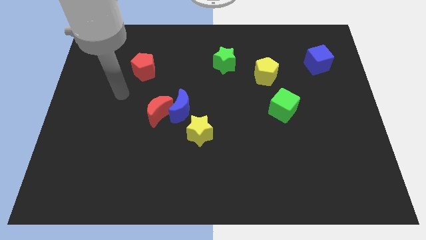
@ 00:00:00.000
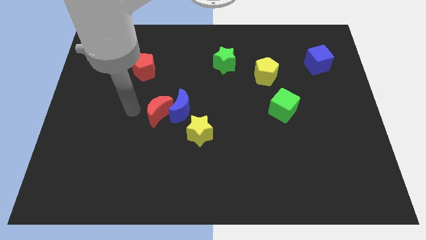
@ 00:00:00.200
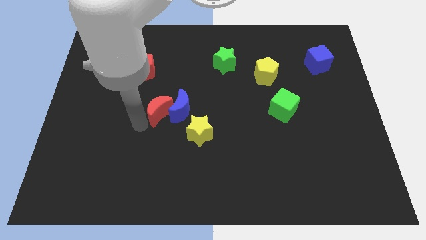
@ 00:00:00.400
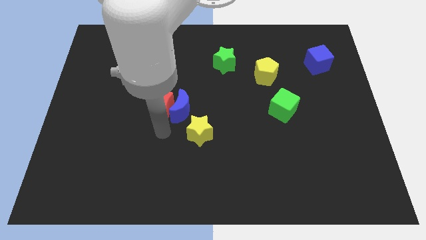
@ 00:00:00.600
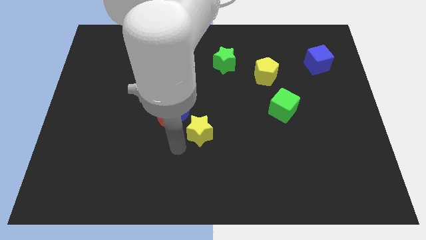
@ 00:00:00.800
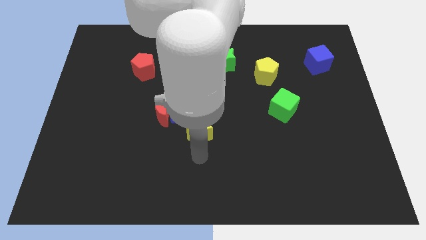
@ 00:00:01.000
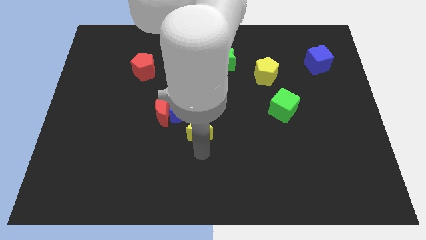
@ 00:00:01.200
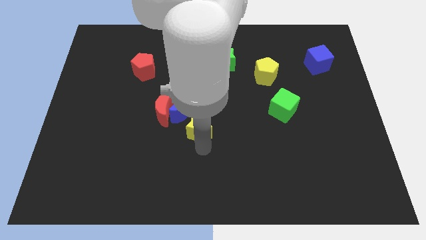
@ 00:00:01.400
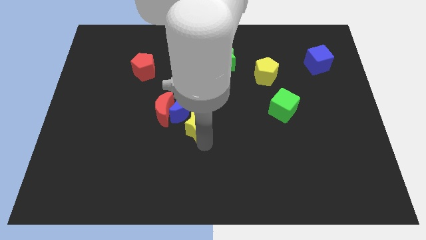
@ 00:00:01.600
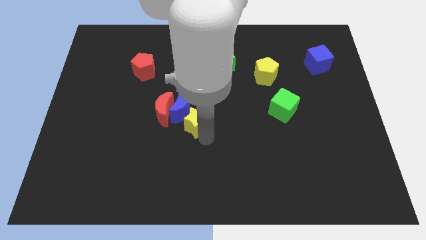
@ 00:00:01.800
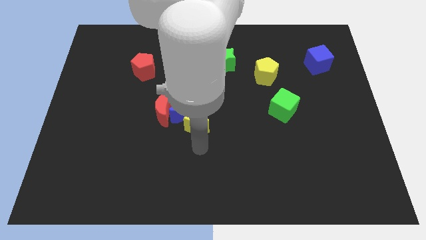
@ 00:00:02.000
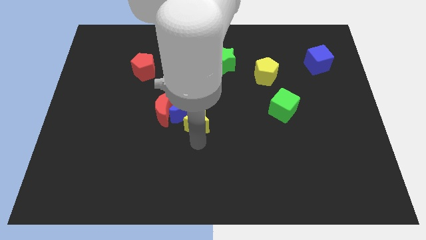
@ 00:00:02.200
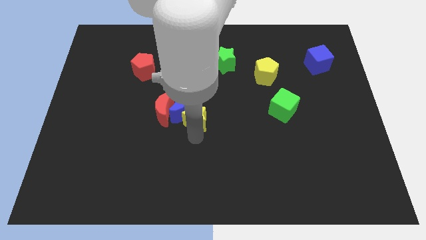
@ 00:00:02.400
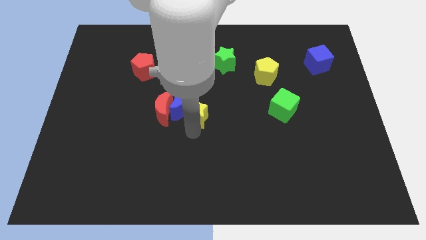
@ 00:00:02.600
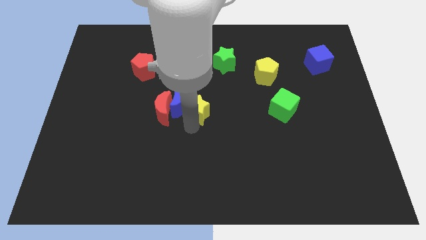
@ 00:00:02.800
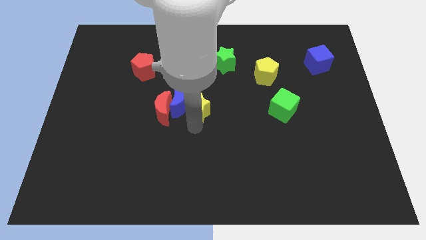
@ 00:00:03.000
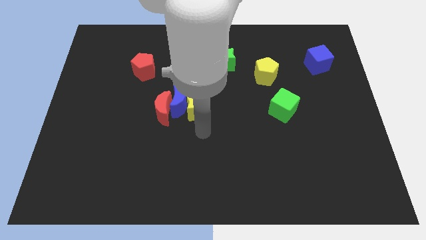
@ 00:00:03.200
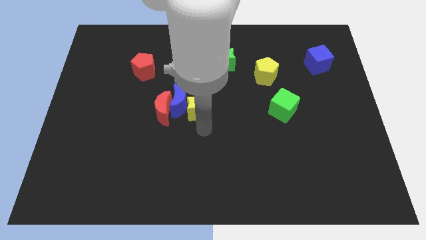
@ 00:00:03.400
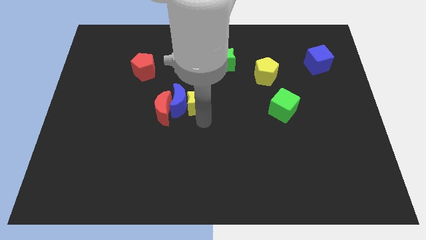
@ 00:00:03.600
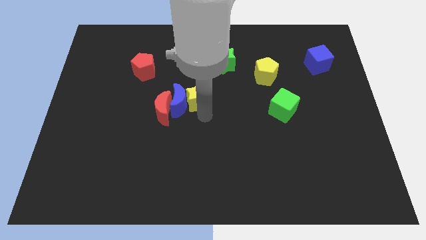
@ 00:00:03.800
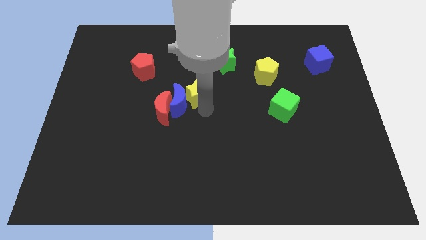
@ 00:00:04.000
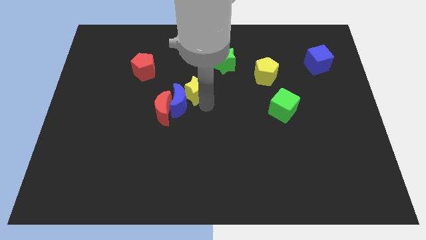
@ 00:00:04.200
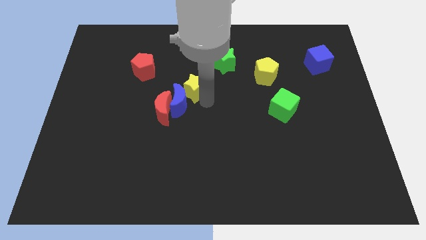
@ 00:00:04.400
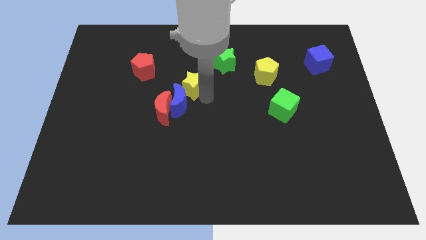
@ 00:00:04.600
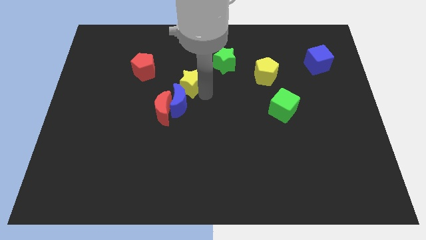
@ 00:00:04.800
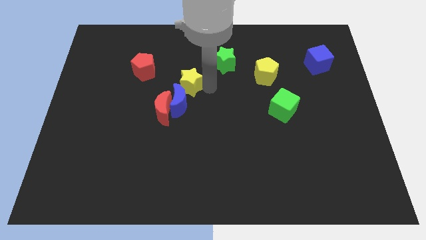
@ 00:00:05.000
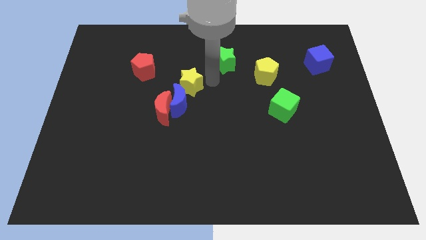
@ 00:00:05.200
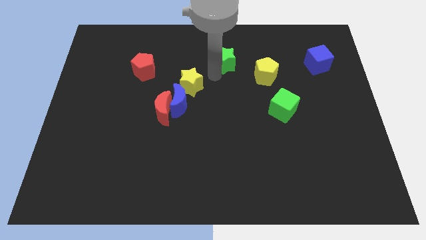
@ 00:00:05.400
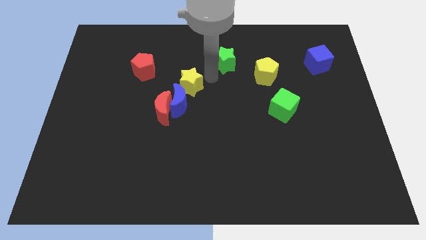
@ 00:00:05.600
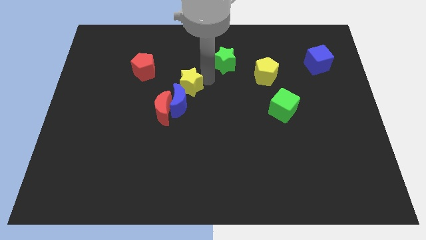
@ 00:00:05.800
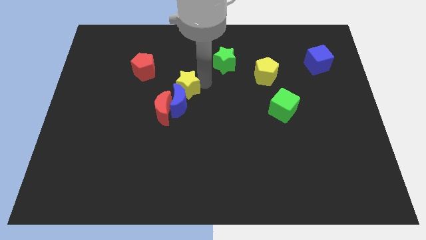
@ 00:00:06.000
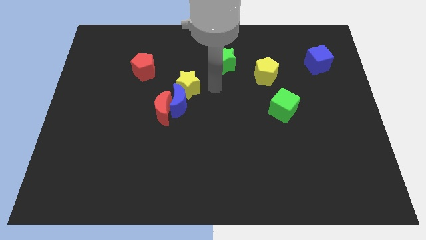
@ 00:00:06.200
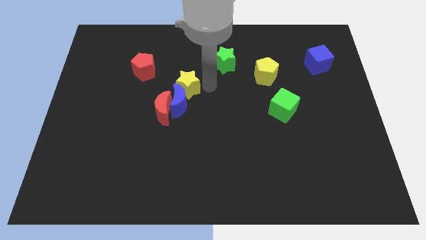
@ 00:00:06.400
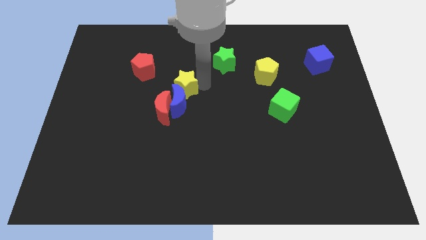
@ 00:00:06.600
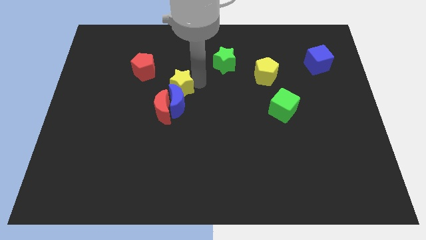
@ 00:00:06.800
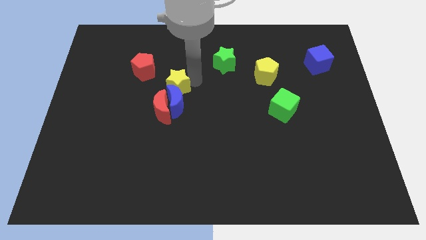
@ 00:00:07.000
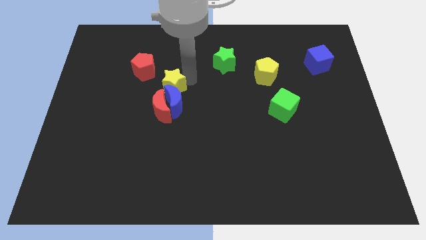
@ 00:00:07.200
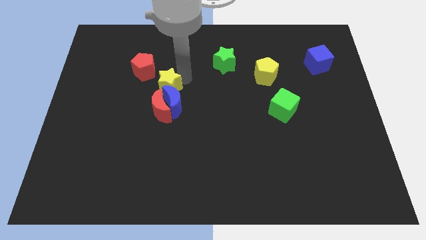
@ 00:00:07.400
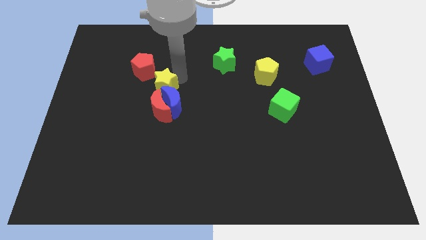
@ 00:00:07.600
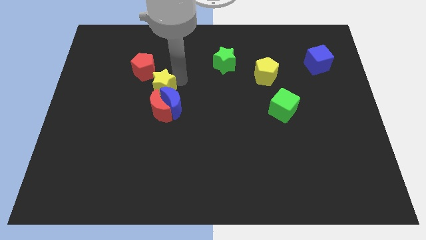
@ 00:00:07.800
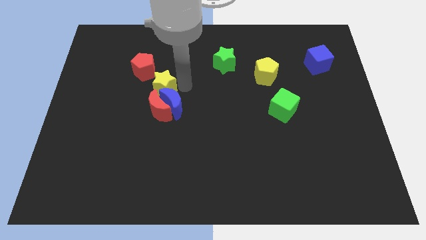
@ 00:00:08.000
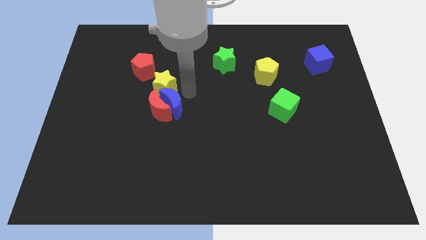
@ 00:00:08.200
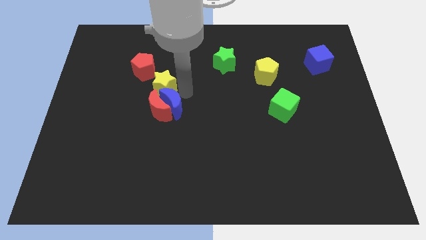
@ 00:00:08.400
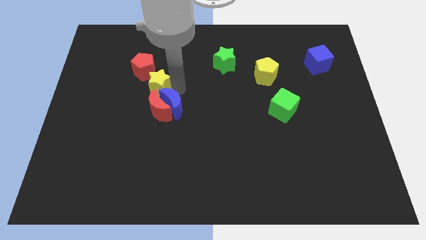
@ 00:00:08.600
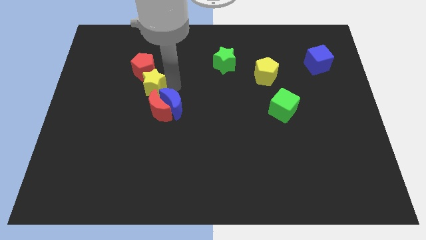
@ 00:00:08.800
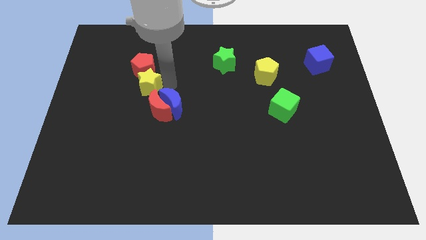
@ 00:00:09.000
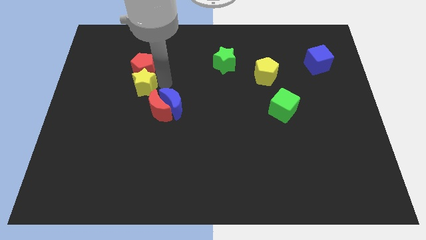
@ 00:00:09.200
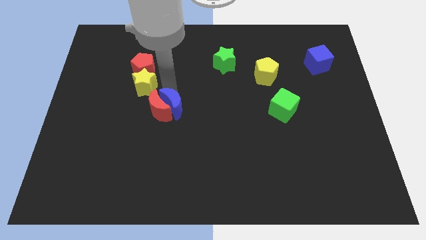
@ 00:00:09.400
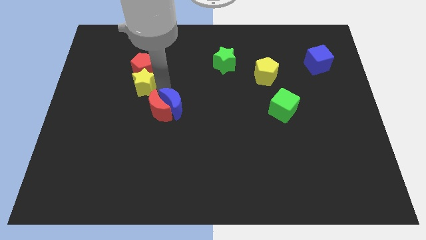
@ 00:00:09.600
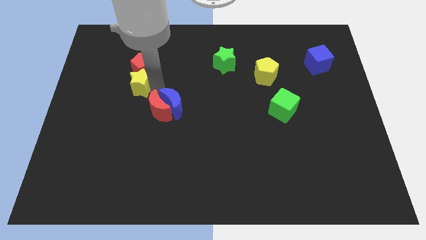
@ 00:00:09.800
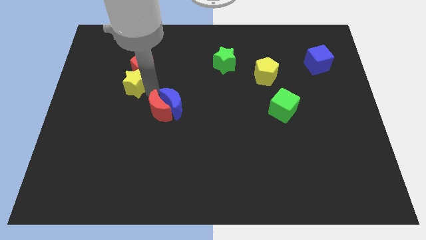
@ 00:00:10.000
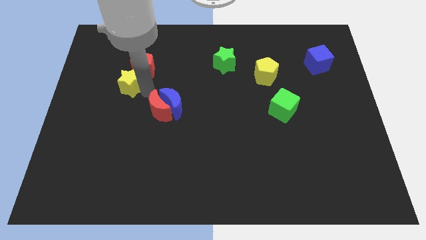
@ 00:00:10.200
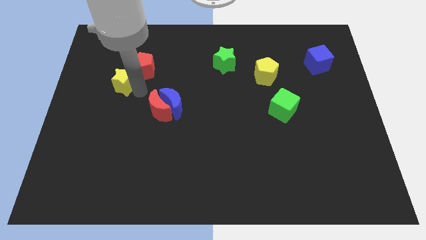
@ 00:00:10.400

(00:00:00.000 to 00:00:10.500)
put the yellow star just left of the red pentagon

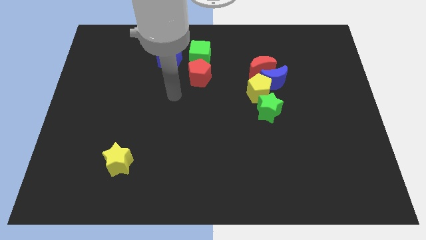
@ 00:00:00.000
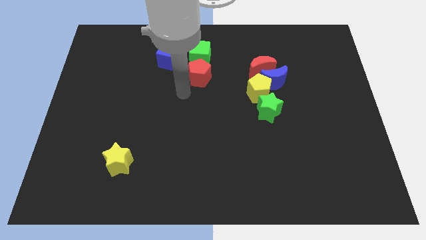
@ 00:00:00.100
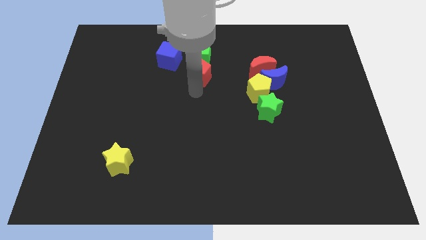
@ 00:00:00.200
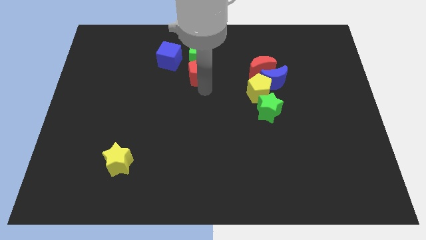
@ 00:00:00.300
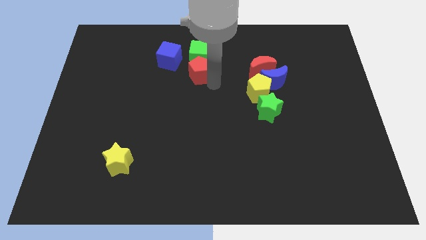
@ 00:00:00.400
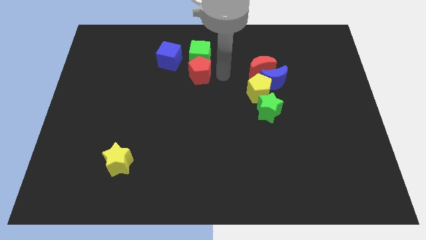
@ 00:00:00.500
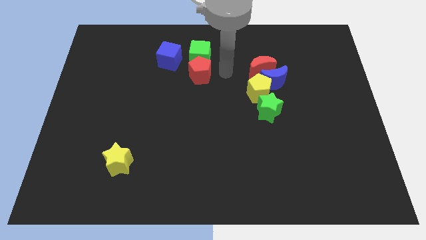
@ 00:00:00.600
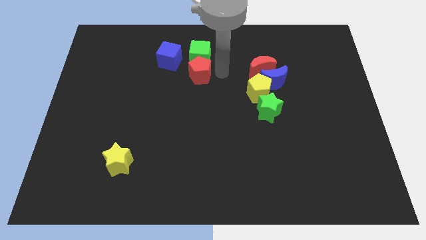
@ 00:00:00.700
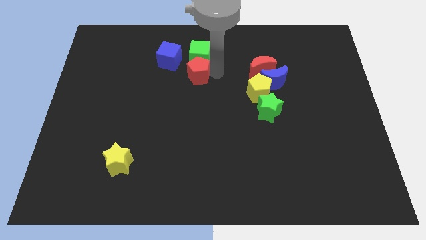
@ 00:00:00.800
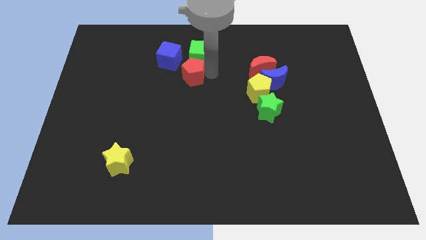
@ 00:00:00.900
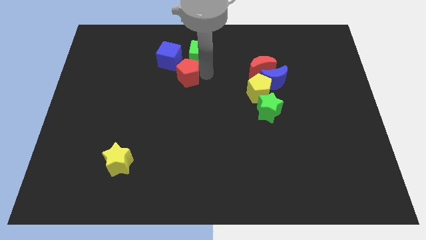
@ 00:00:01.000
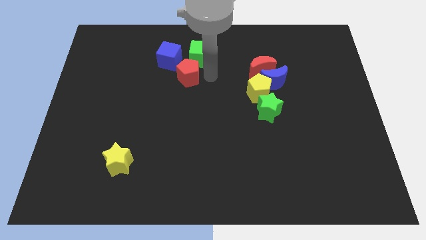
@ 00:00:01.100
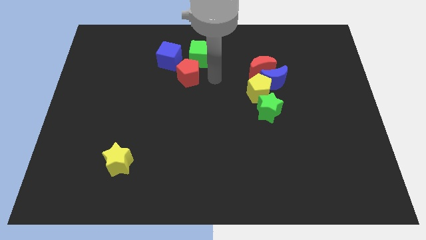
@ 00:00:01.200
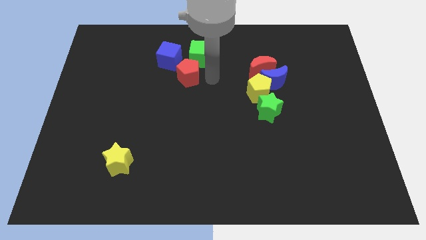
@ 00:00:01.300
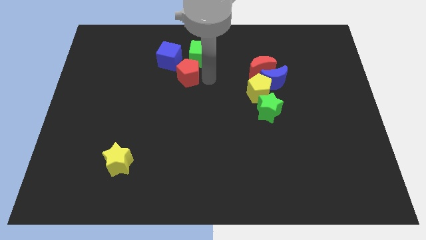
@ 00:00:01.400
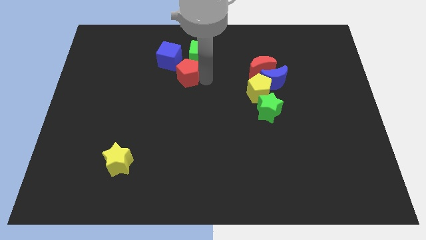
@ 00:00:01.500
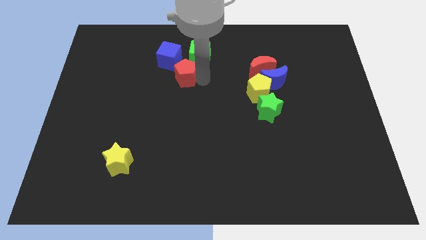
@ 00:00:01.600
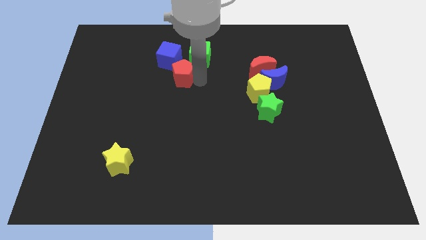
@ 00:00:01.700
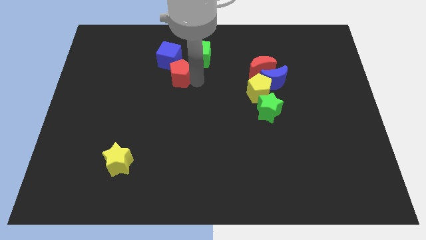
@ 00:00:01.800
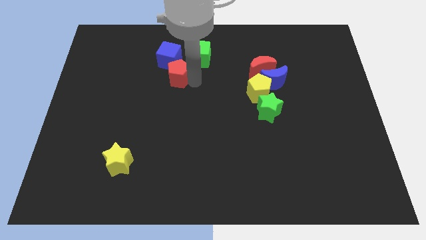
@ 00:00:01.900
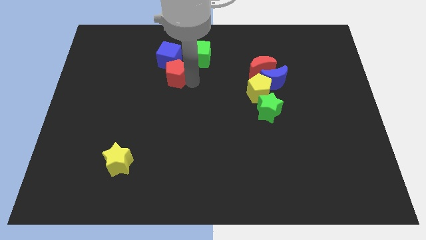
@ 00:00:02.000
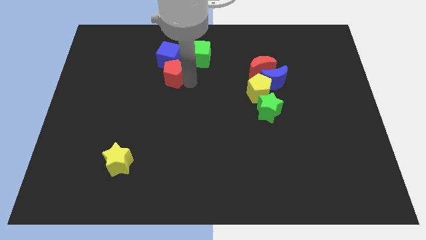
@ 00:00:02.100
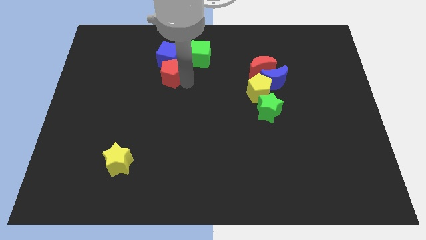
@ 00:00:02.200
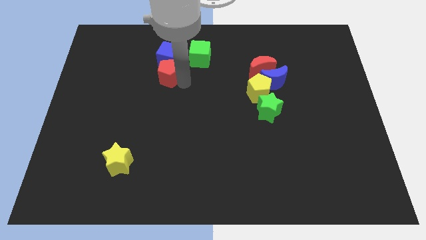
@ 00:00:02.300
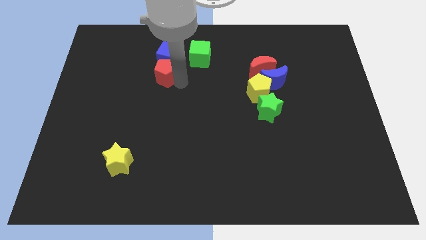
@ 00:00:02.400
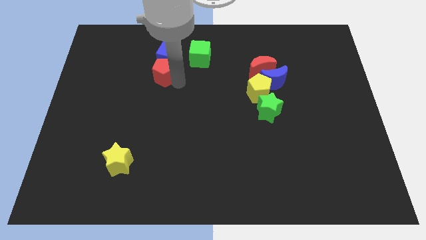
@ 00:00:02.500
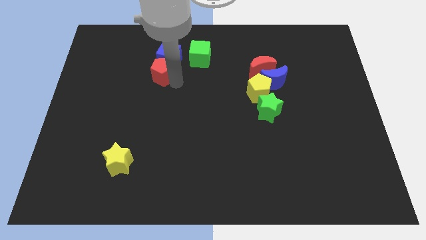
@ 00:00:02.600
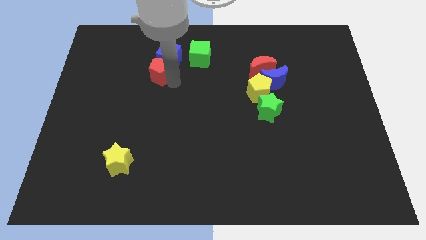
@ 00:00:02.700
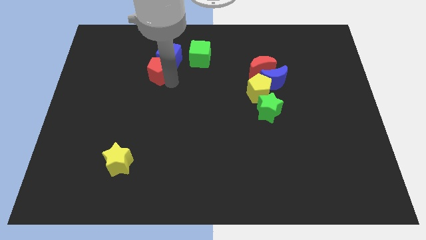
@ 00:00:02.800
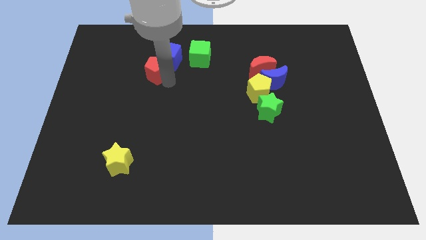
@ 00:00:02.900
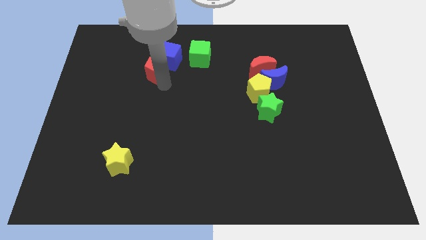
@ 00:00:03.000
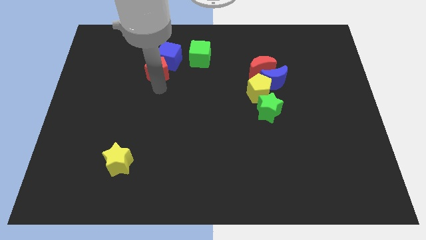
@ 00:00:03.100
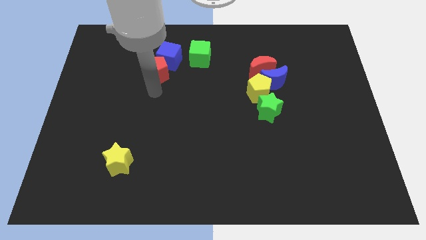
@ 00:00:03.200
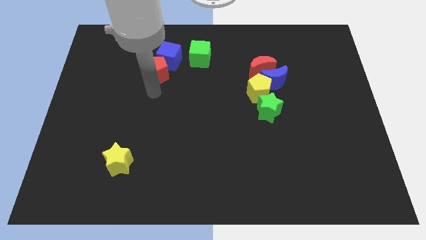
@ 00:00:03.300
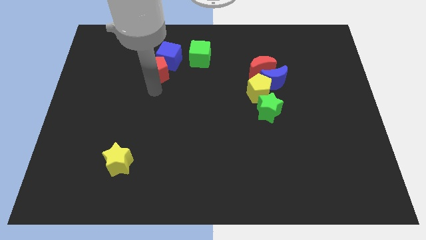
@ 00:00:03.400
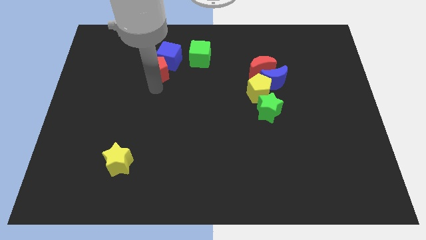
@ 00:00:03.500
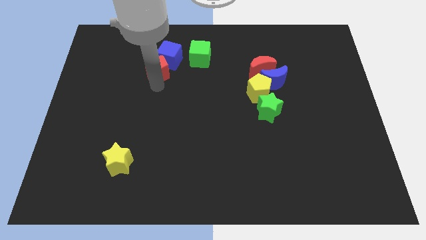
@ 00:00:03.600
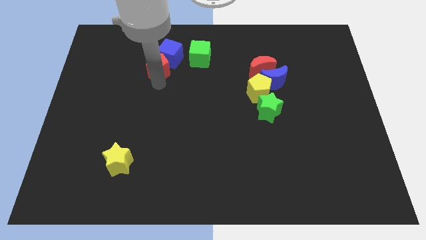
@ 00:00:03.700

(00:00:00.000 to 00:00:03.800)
put the red pentagon to the left of the green cube
